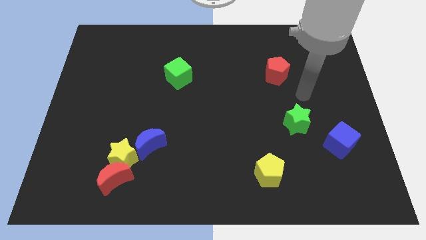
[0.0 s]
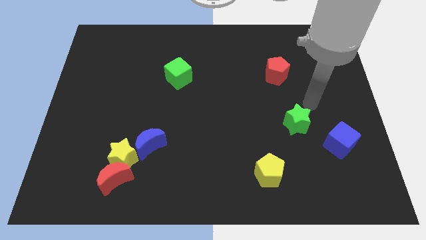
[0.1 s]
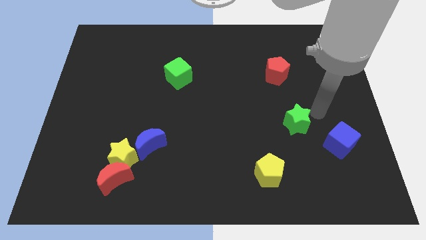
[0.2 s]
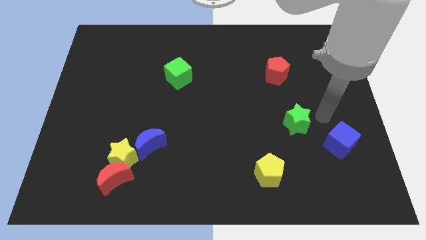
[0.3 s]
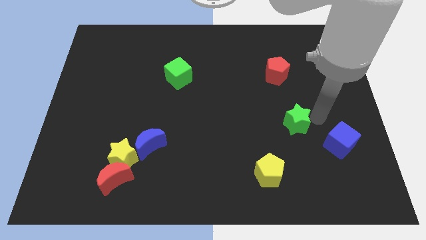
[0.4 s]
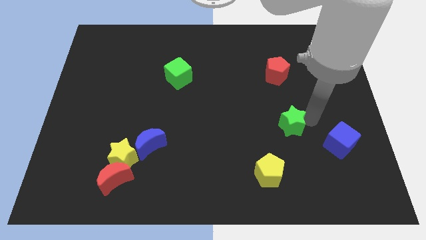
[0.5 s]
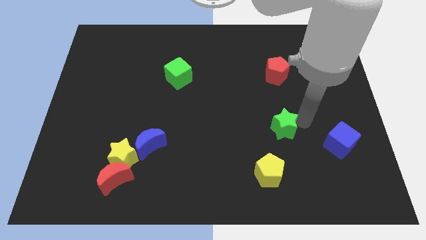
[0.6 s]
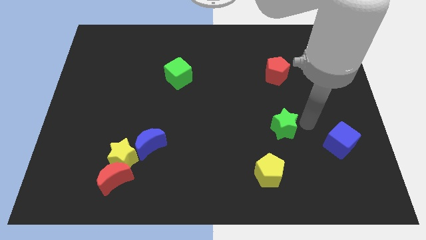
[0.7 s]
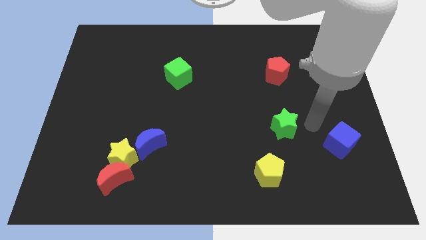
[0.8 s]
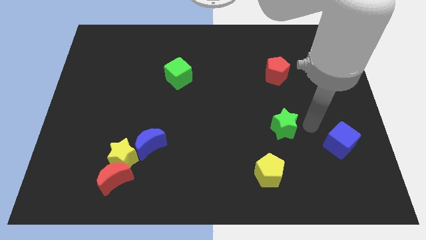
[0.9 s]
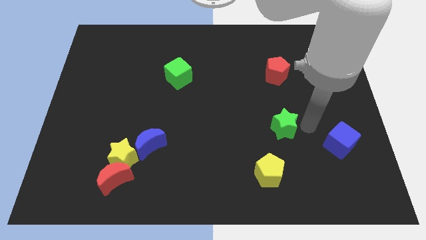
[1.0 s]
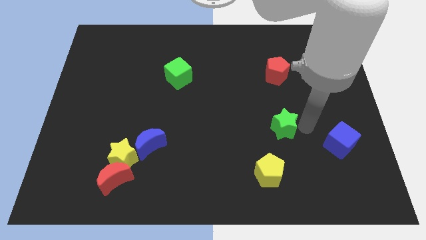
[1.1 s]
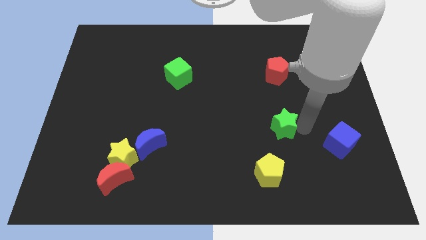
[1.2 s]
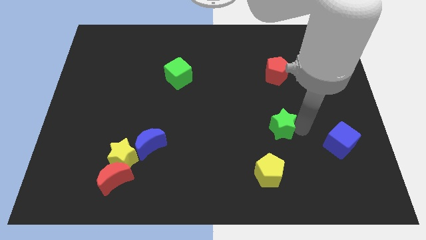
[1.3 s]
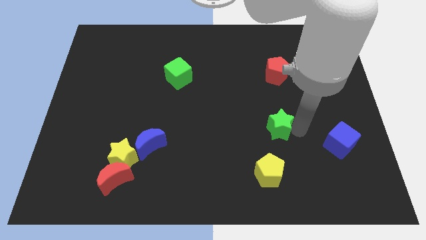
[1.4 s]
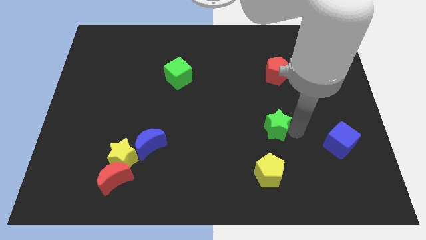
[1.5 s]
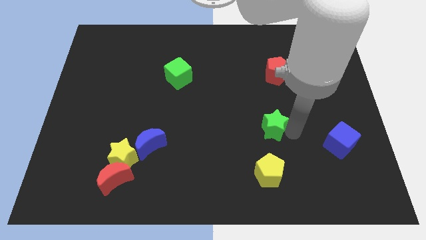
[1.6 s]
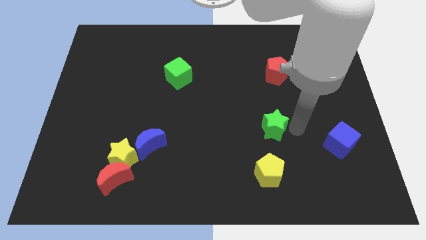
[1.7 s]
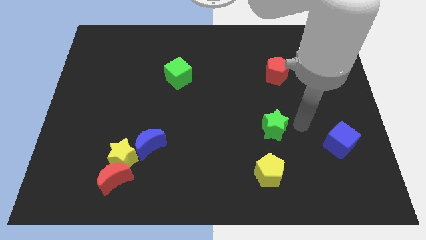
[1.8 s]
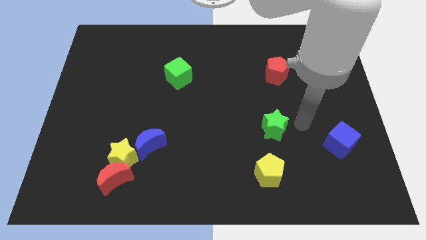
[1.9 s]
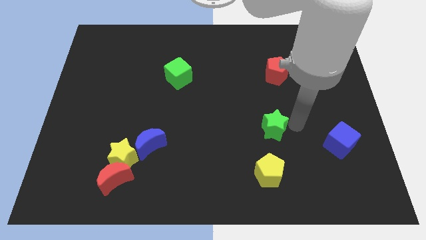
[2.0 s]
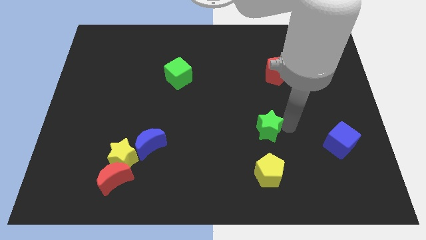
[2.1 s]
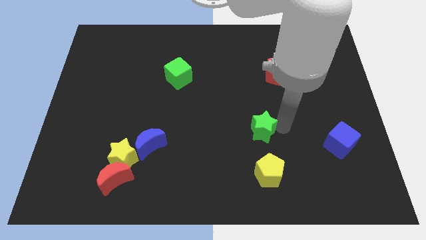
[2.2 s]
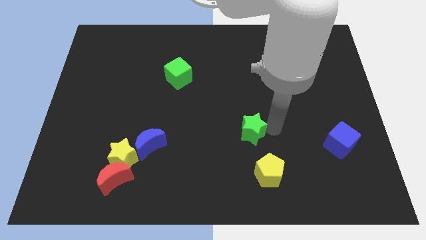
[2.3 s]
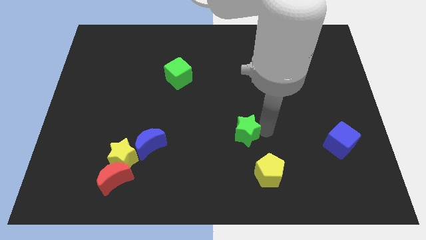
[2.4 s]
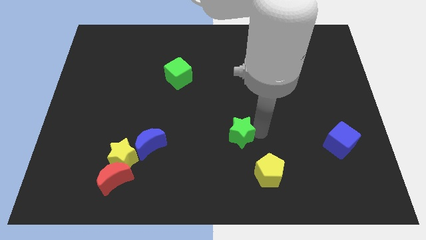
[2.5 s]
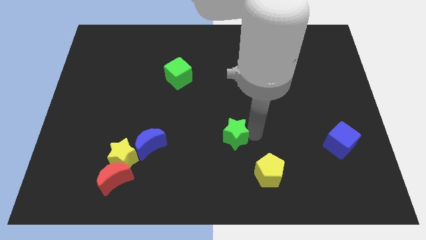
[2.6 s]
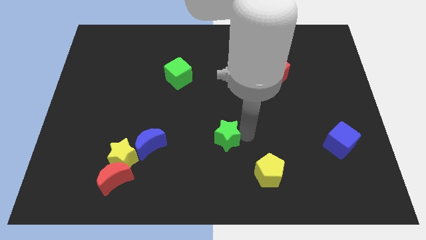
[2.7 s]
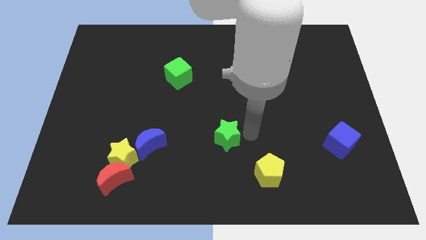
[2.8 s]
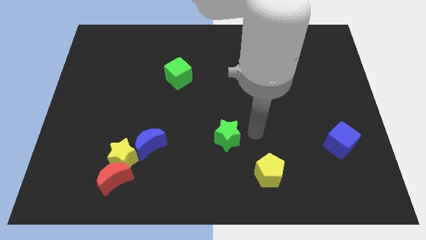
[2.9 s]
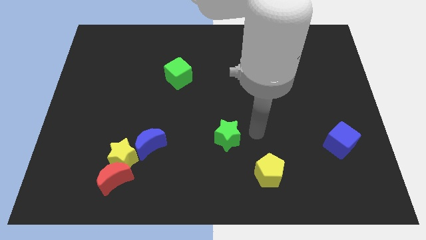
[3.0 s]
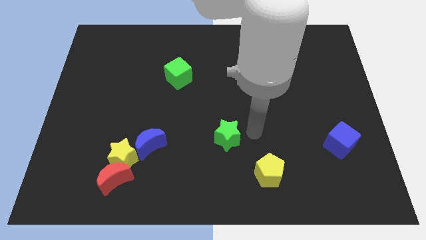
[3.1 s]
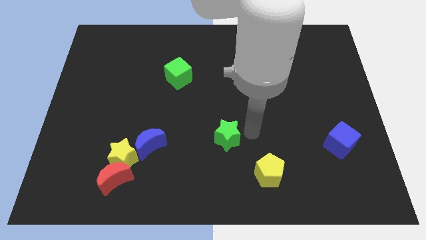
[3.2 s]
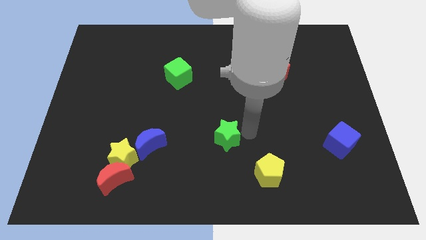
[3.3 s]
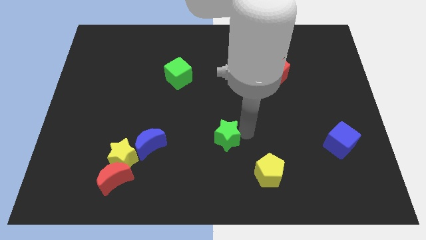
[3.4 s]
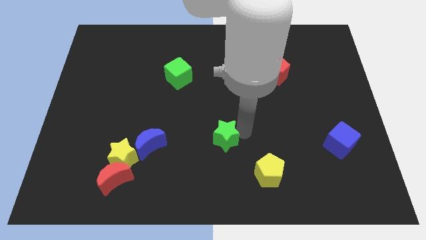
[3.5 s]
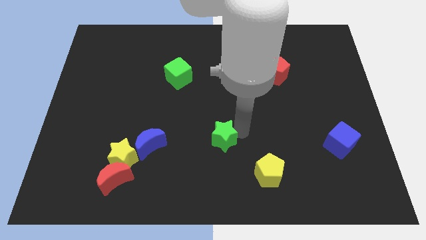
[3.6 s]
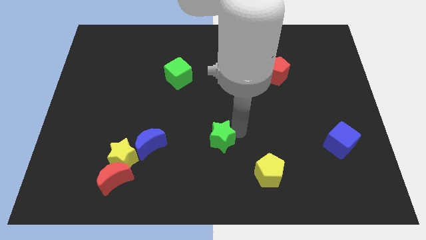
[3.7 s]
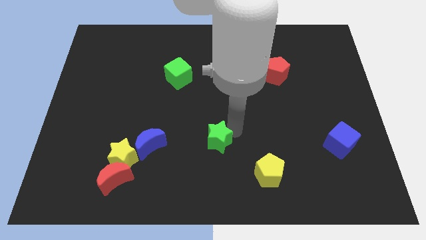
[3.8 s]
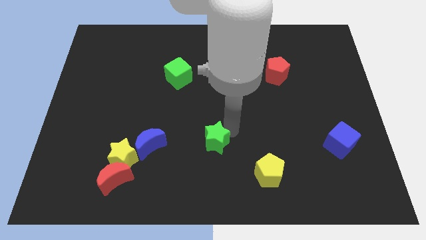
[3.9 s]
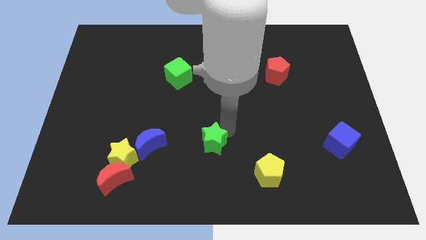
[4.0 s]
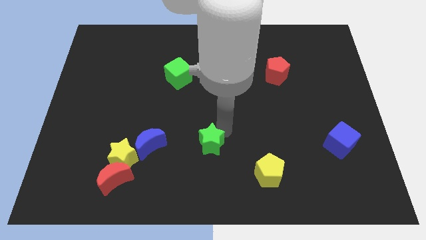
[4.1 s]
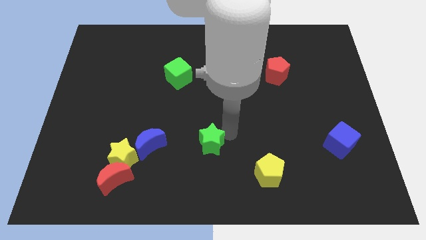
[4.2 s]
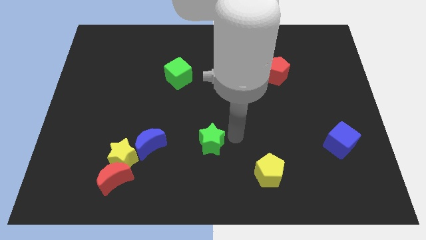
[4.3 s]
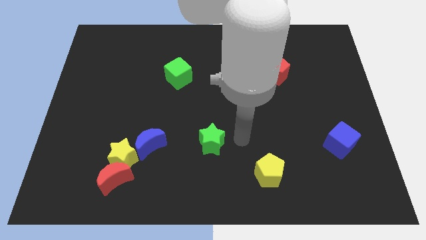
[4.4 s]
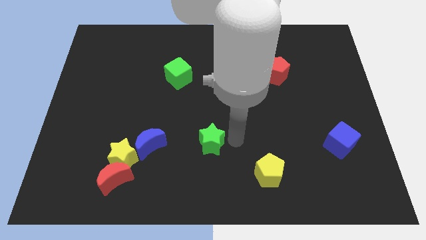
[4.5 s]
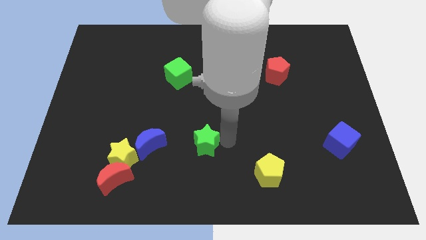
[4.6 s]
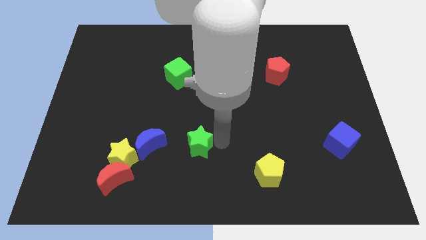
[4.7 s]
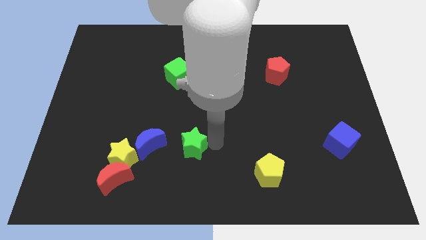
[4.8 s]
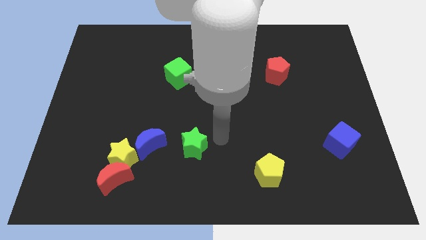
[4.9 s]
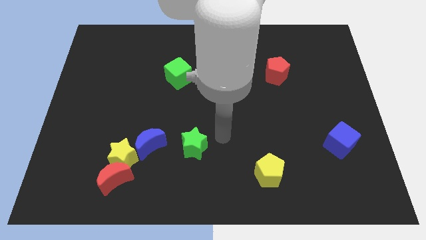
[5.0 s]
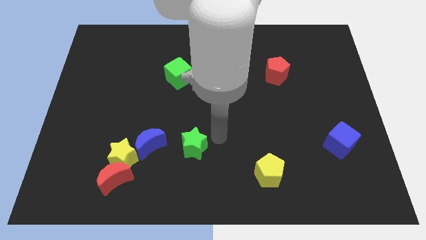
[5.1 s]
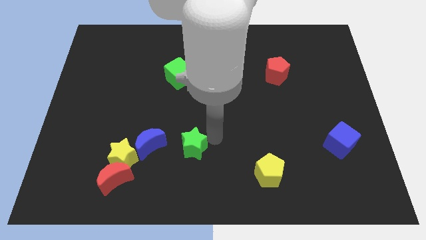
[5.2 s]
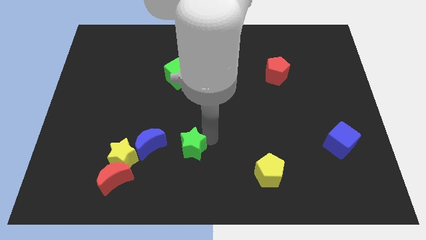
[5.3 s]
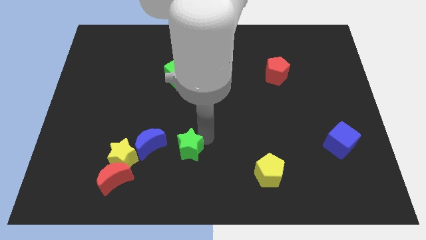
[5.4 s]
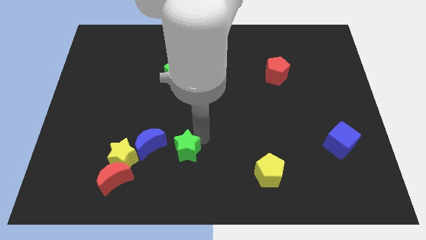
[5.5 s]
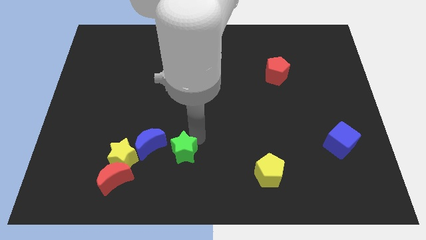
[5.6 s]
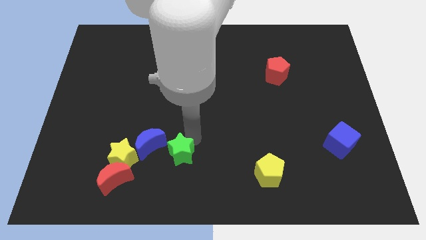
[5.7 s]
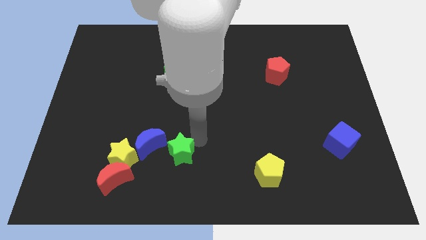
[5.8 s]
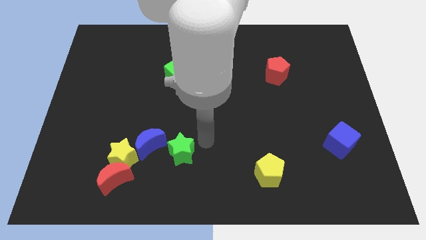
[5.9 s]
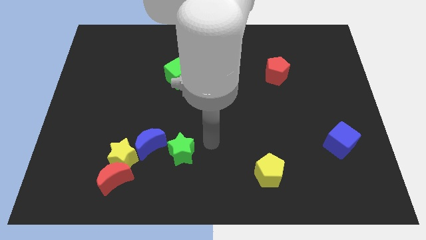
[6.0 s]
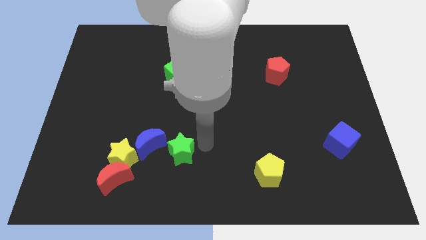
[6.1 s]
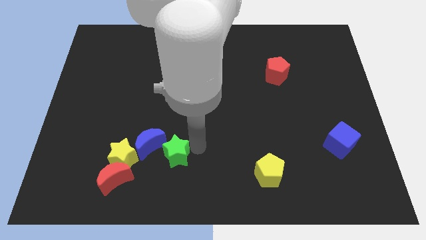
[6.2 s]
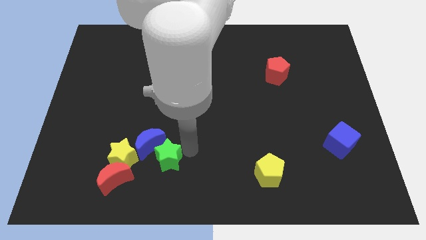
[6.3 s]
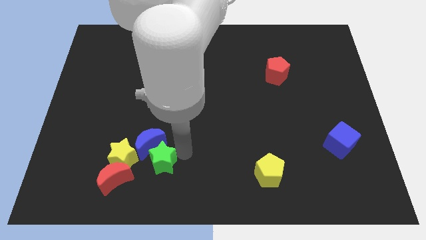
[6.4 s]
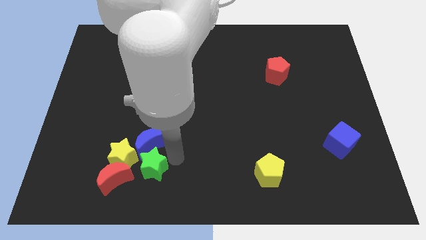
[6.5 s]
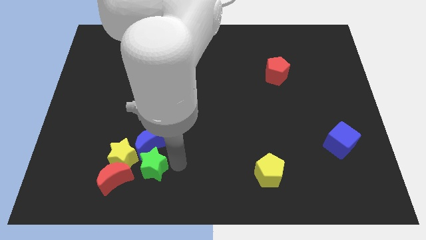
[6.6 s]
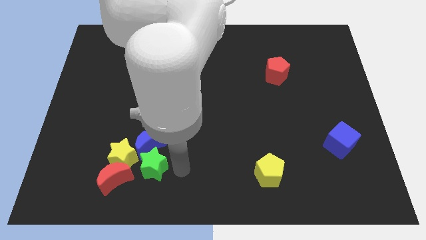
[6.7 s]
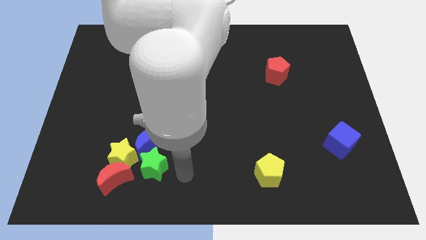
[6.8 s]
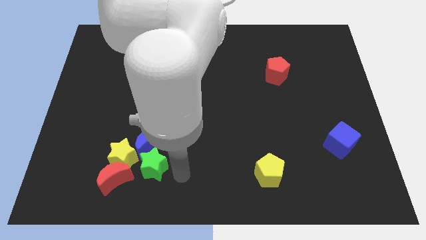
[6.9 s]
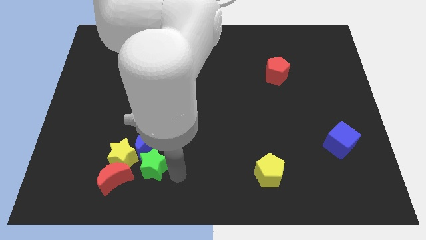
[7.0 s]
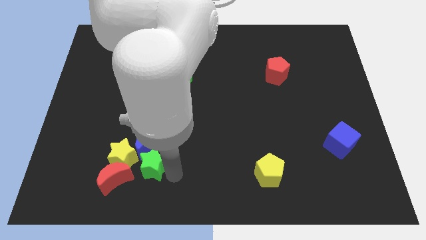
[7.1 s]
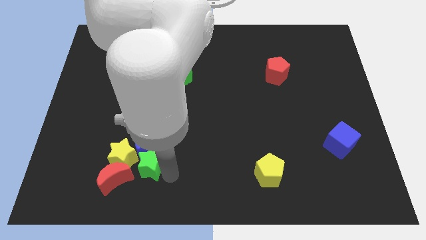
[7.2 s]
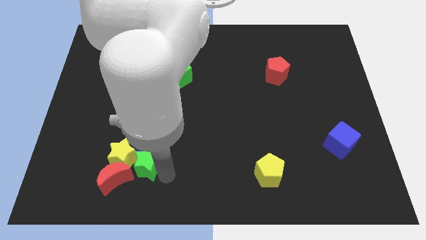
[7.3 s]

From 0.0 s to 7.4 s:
put the green star towards the yellow star
